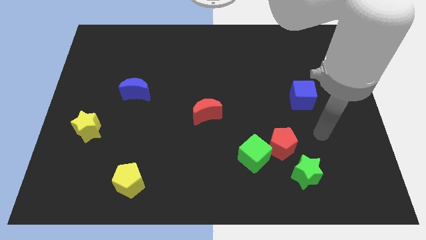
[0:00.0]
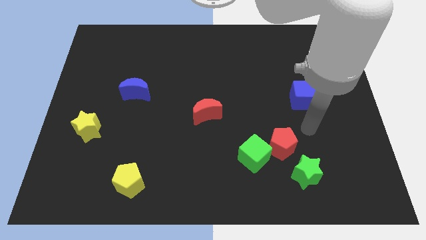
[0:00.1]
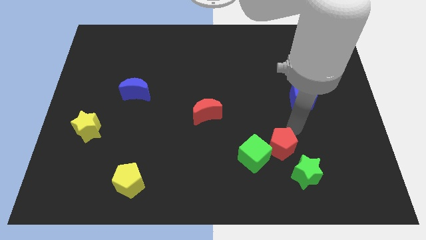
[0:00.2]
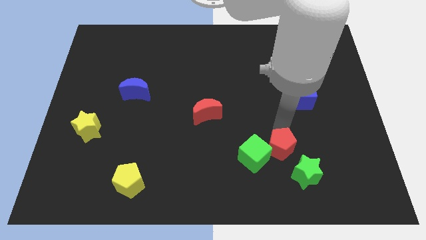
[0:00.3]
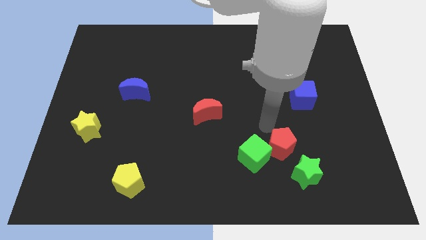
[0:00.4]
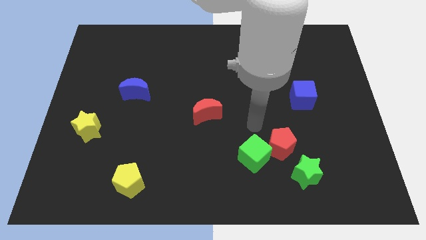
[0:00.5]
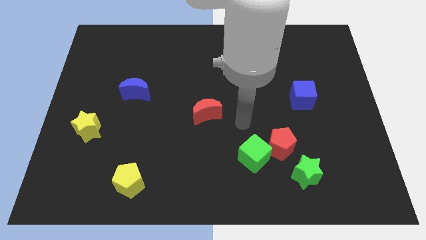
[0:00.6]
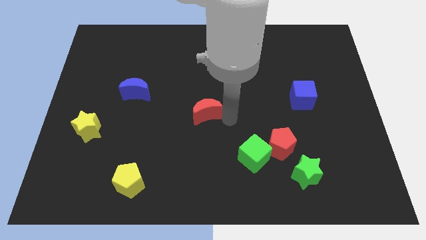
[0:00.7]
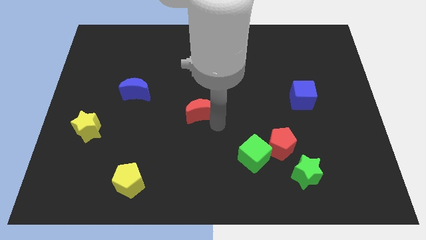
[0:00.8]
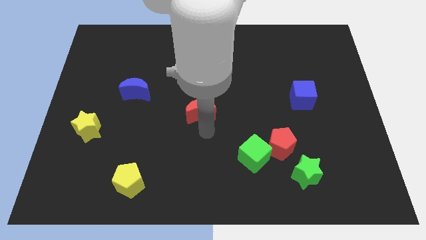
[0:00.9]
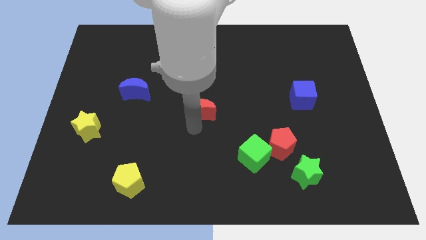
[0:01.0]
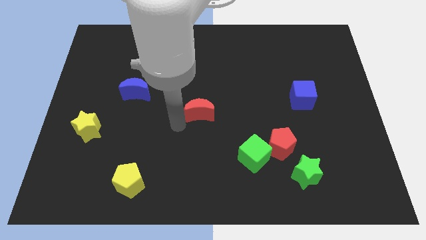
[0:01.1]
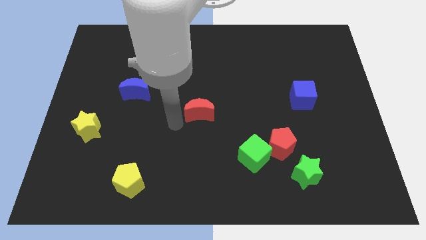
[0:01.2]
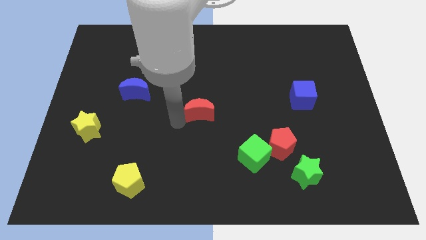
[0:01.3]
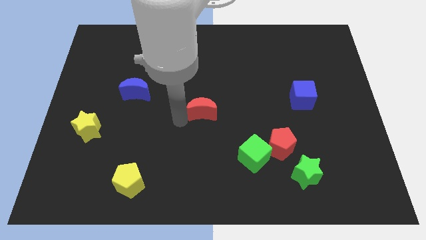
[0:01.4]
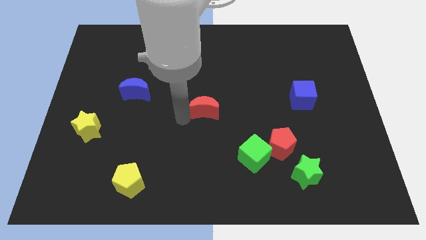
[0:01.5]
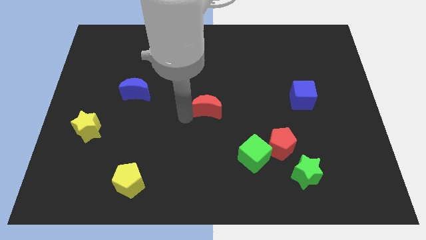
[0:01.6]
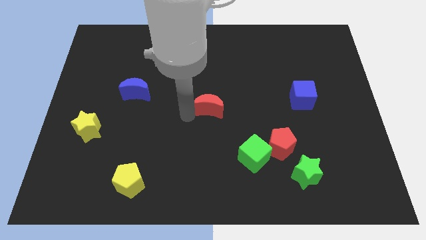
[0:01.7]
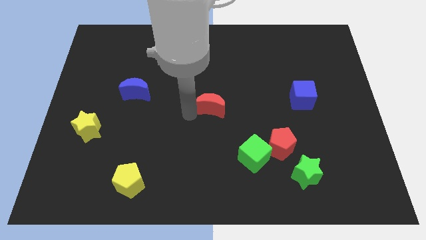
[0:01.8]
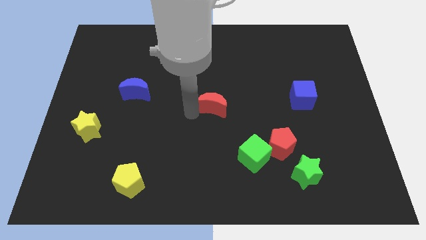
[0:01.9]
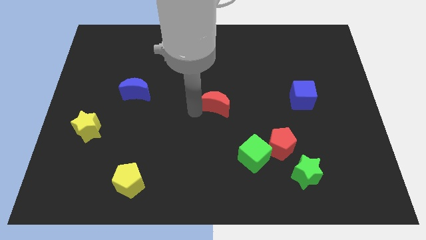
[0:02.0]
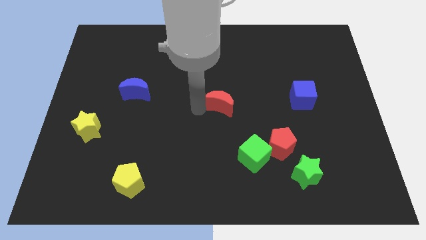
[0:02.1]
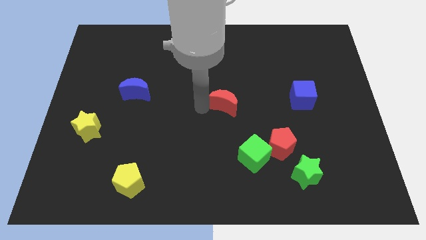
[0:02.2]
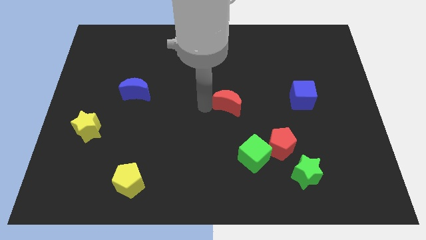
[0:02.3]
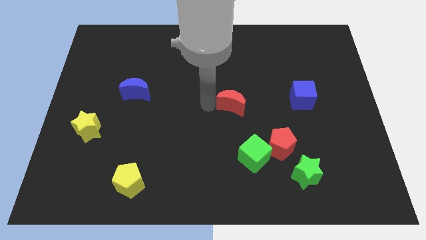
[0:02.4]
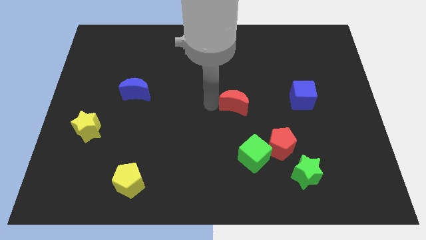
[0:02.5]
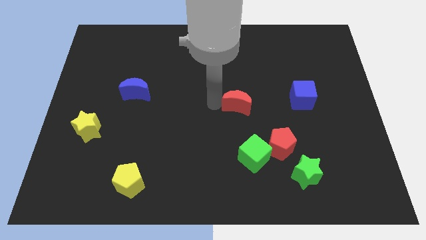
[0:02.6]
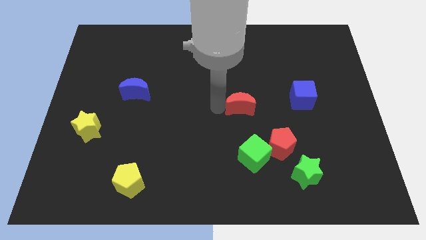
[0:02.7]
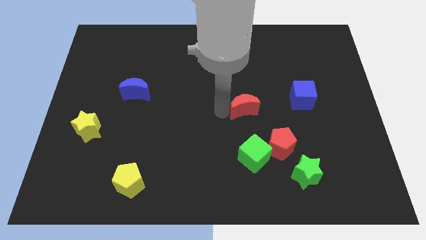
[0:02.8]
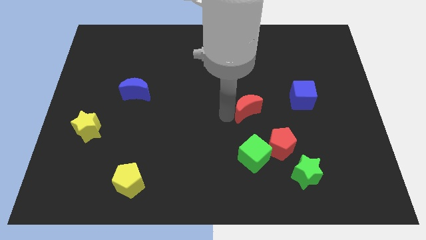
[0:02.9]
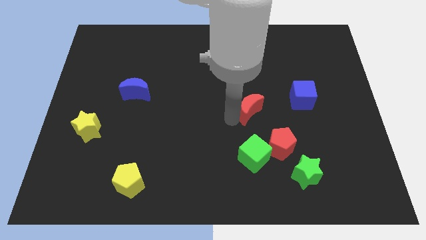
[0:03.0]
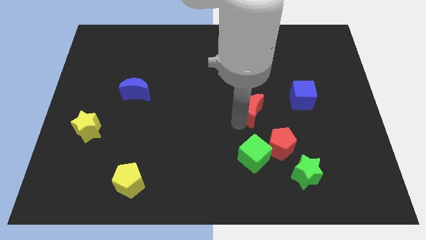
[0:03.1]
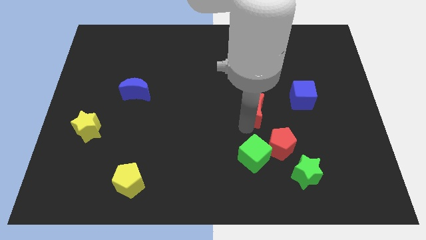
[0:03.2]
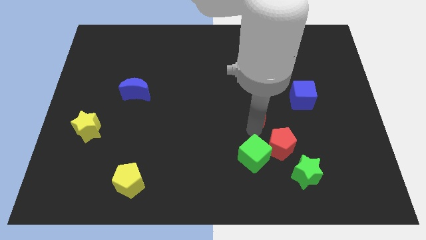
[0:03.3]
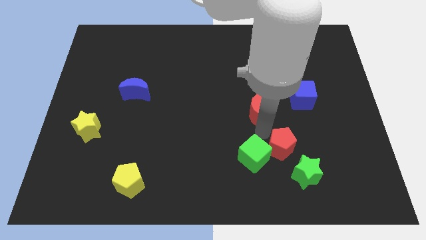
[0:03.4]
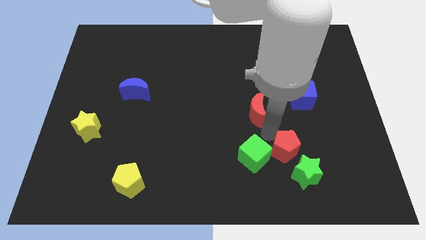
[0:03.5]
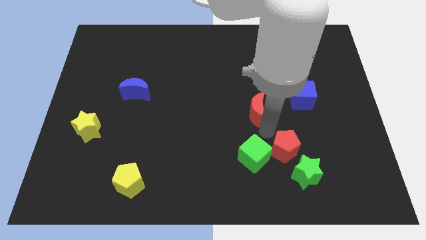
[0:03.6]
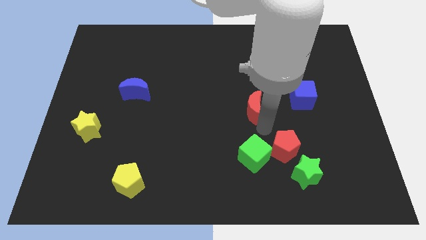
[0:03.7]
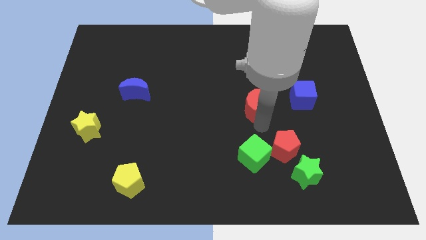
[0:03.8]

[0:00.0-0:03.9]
slightly move the red moon up and right

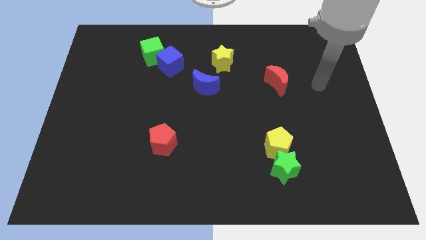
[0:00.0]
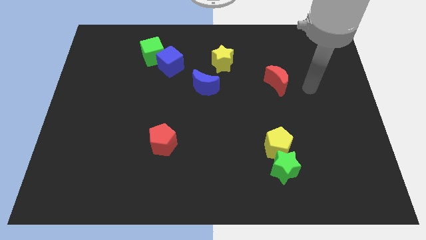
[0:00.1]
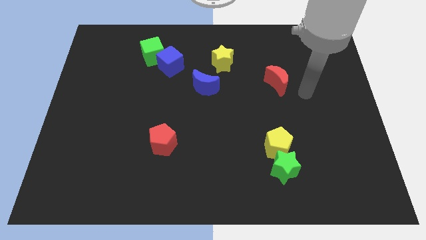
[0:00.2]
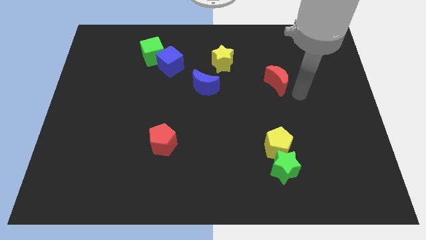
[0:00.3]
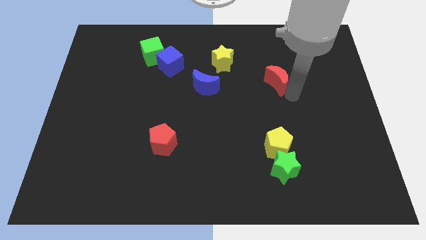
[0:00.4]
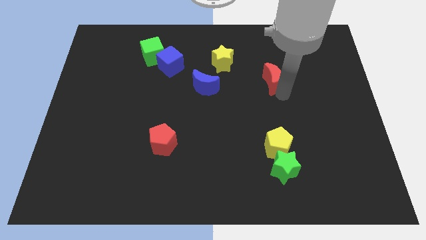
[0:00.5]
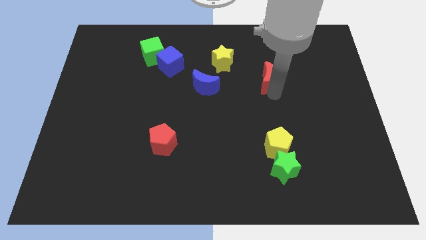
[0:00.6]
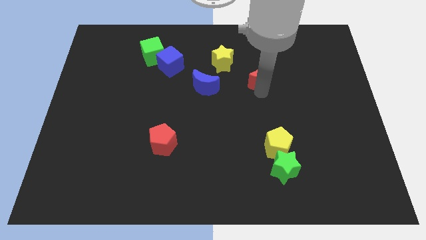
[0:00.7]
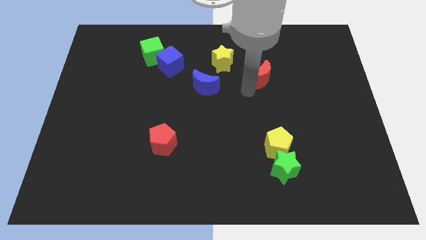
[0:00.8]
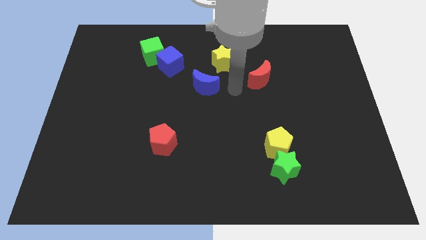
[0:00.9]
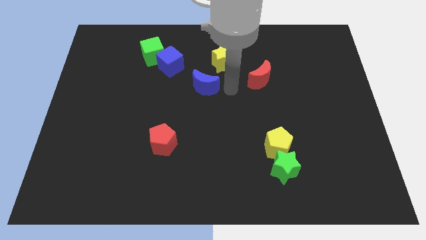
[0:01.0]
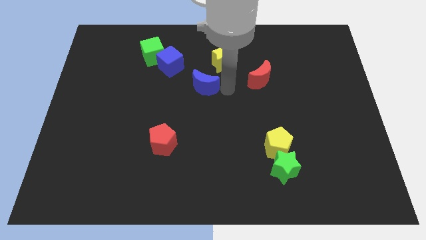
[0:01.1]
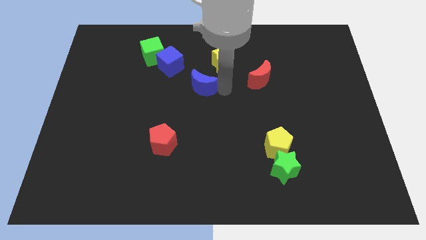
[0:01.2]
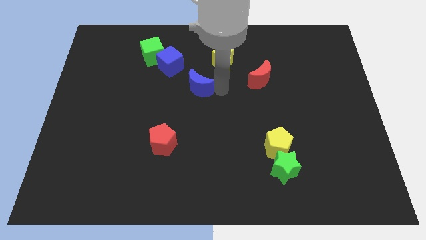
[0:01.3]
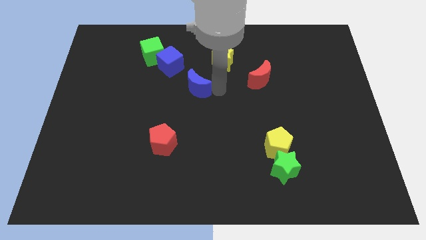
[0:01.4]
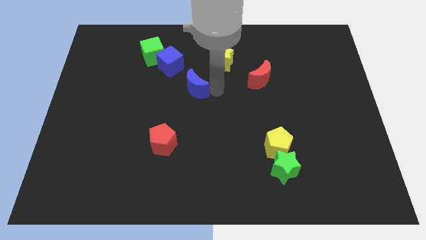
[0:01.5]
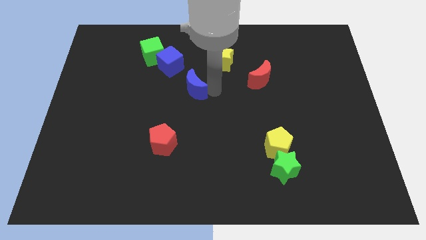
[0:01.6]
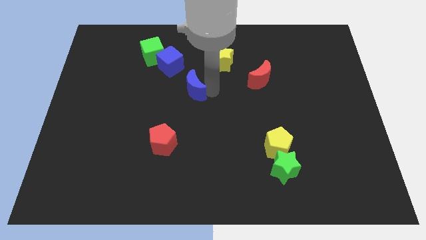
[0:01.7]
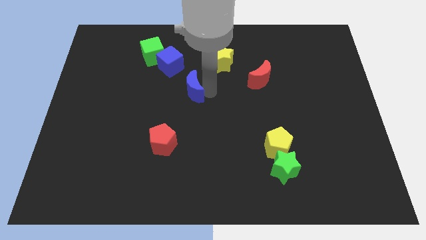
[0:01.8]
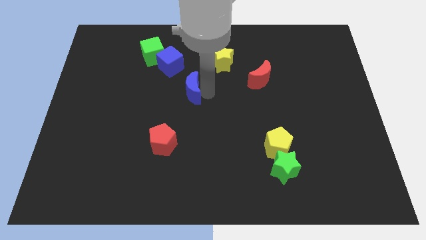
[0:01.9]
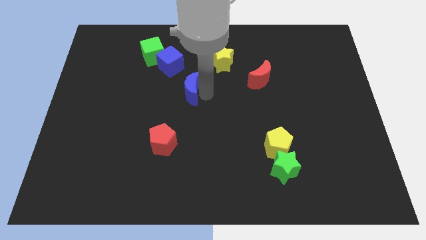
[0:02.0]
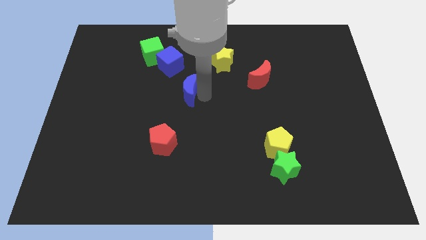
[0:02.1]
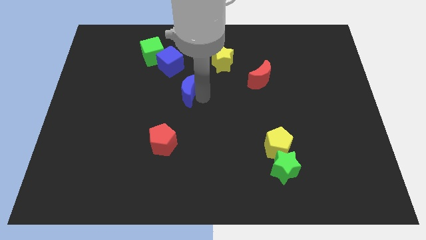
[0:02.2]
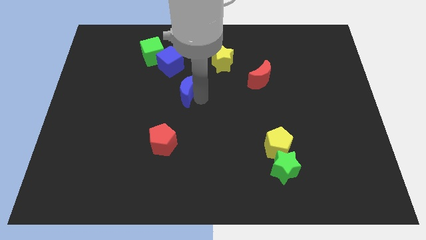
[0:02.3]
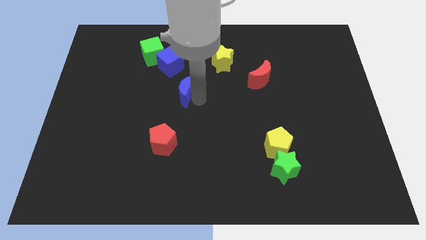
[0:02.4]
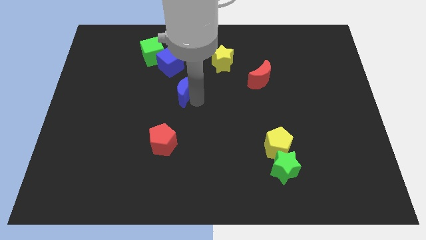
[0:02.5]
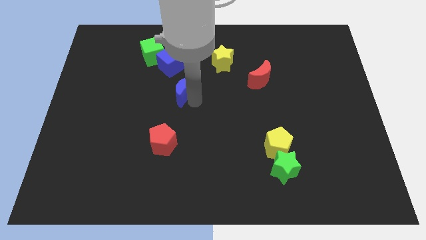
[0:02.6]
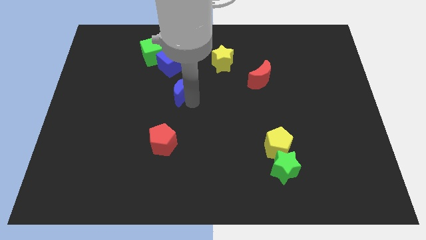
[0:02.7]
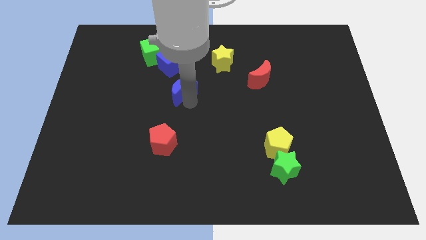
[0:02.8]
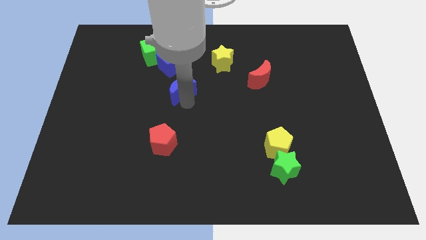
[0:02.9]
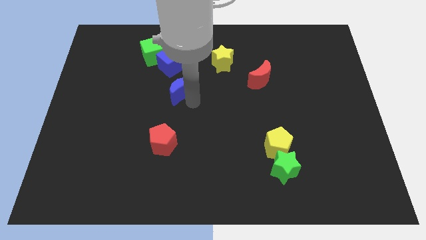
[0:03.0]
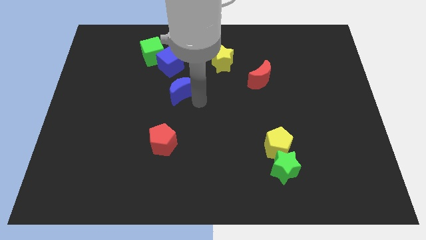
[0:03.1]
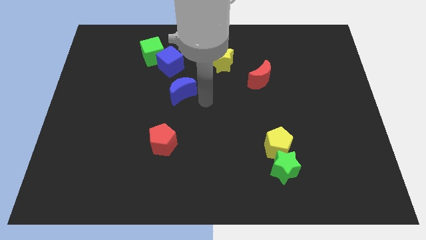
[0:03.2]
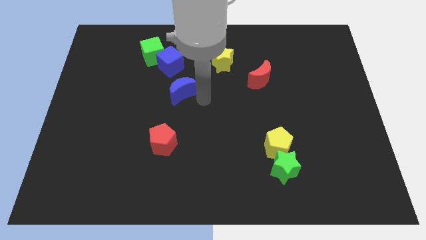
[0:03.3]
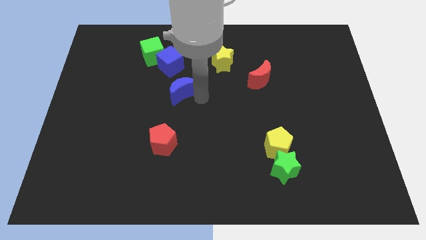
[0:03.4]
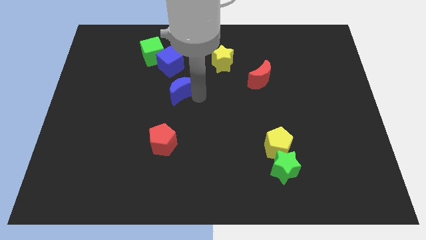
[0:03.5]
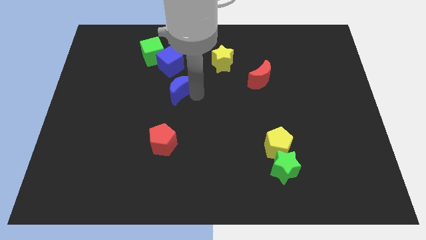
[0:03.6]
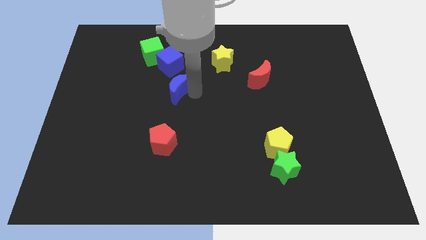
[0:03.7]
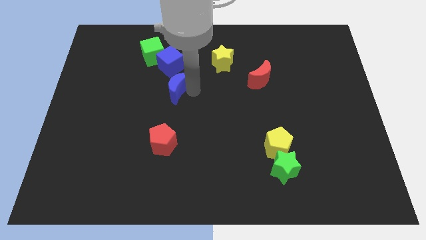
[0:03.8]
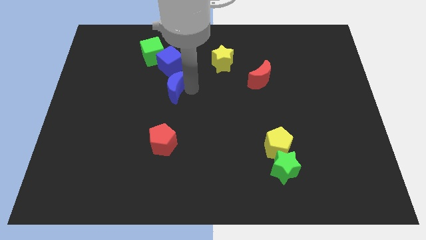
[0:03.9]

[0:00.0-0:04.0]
slightly move the blue moon left
